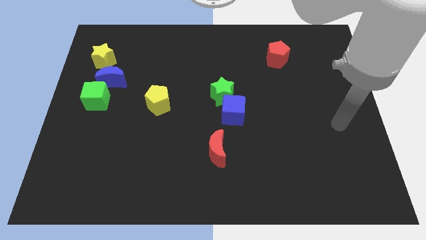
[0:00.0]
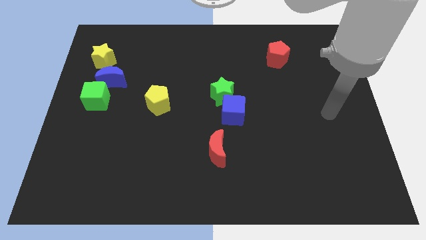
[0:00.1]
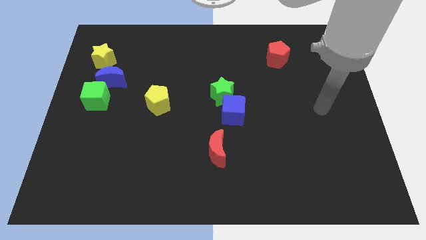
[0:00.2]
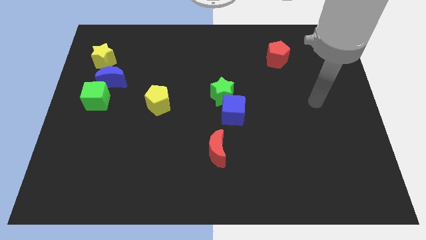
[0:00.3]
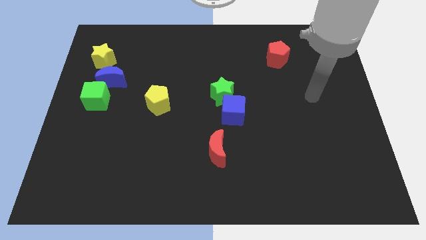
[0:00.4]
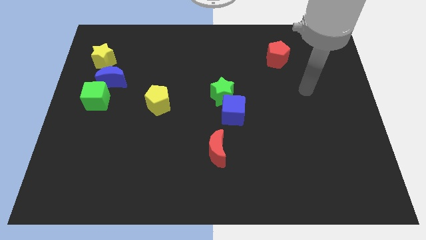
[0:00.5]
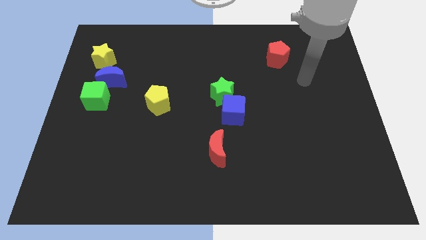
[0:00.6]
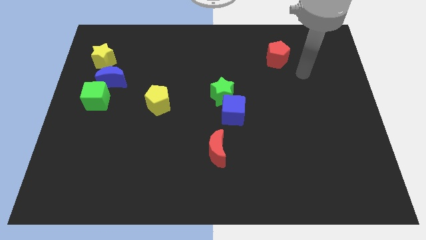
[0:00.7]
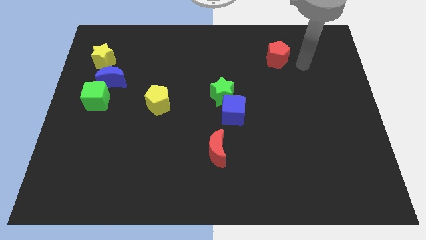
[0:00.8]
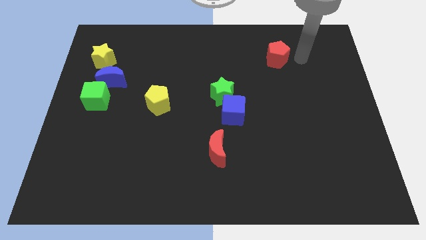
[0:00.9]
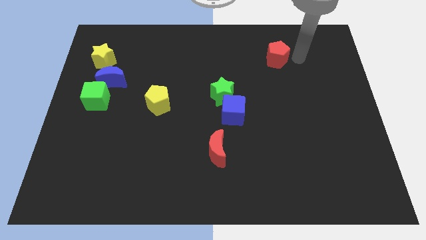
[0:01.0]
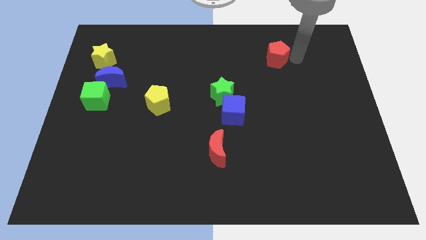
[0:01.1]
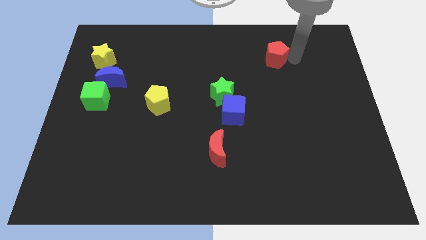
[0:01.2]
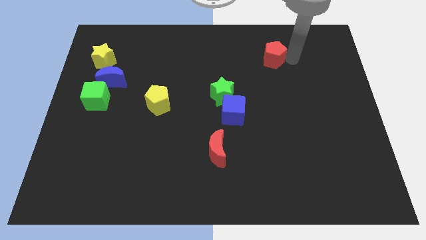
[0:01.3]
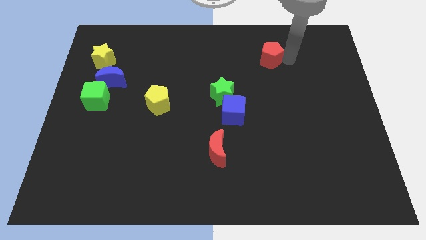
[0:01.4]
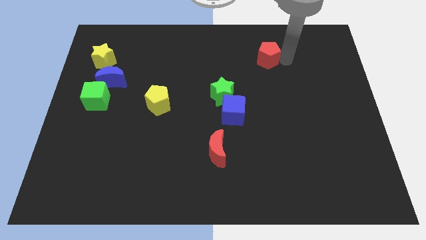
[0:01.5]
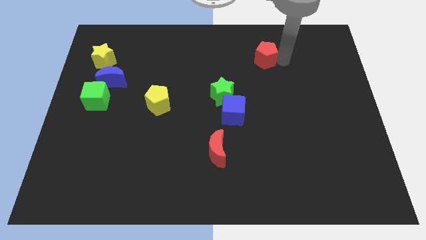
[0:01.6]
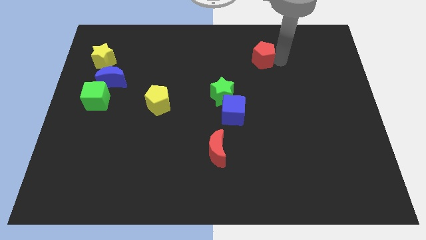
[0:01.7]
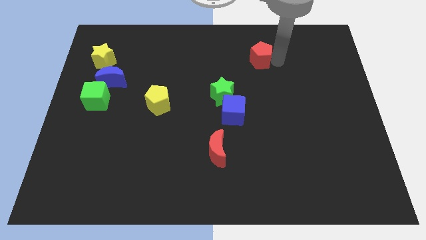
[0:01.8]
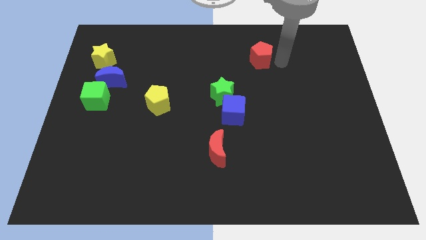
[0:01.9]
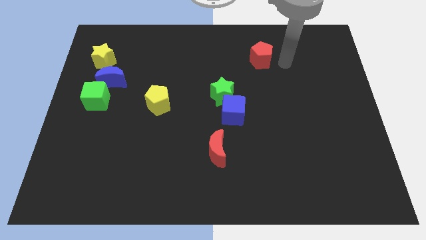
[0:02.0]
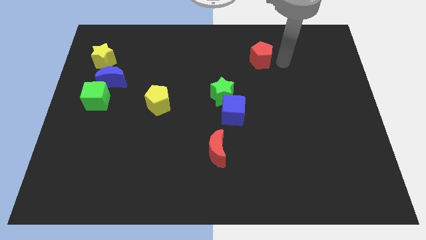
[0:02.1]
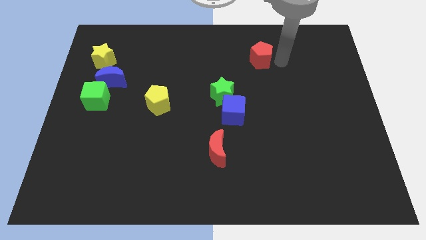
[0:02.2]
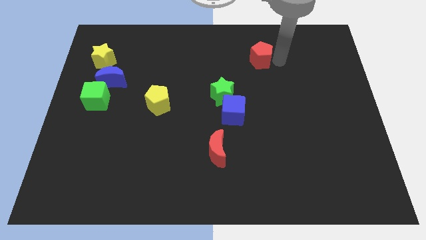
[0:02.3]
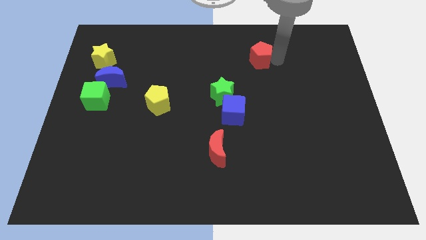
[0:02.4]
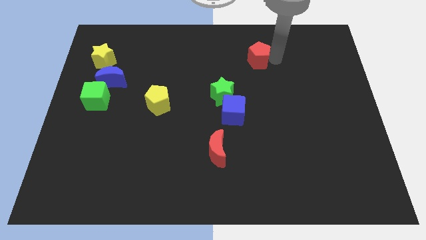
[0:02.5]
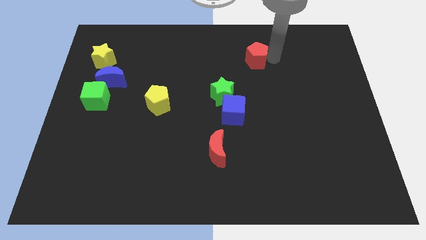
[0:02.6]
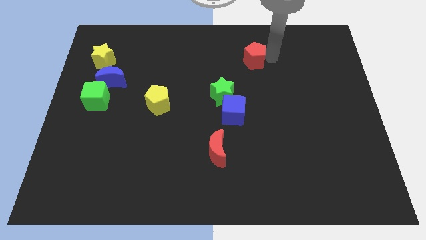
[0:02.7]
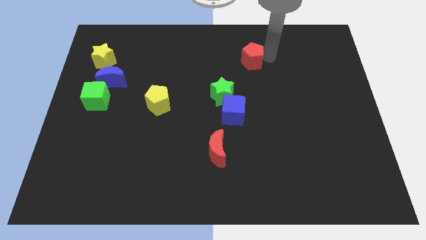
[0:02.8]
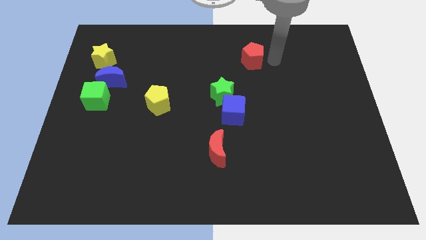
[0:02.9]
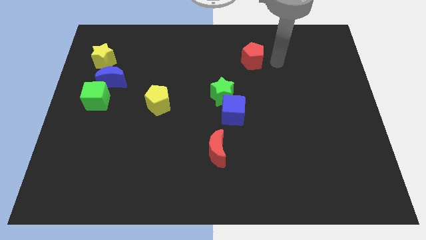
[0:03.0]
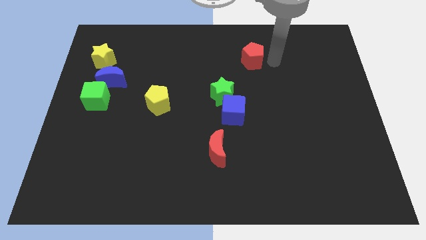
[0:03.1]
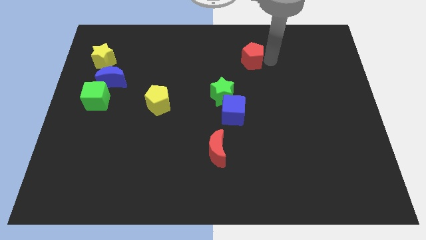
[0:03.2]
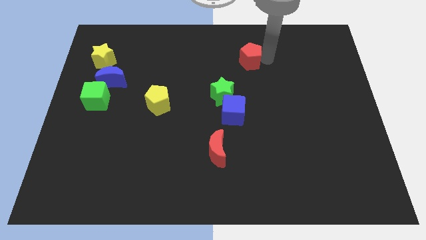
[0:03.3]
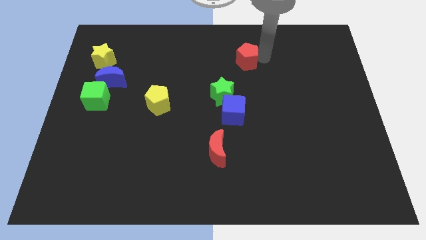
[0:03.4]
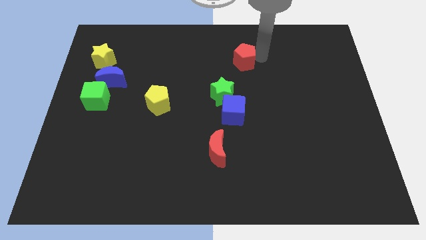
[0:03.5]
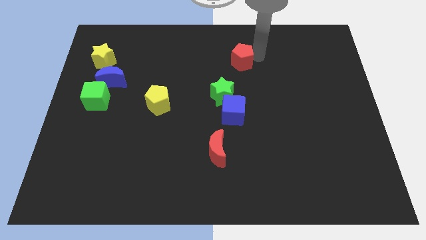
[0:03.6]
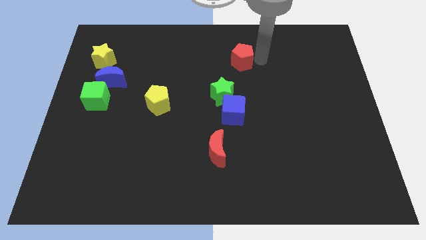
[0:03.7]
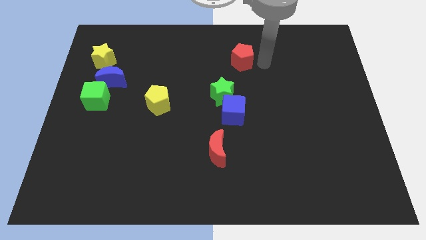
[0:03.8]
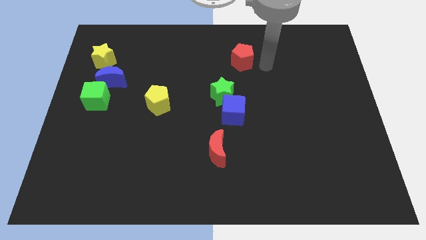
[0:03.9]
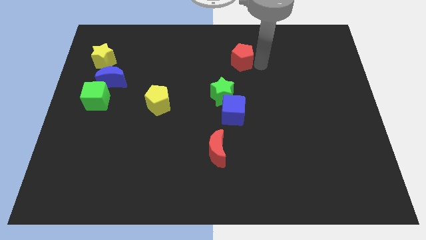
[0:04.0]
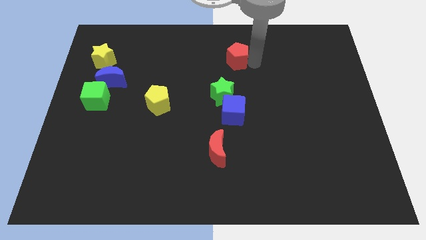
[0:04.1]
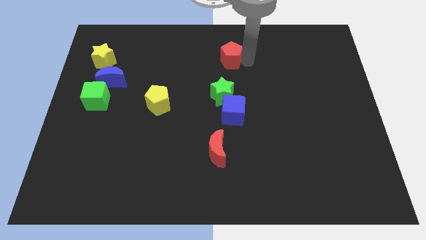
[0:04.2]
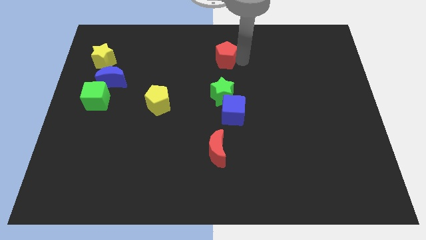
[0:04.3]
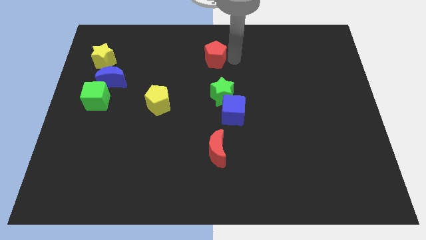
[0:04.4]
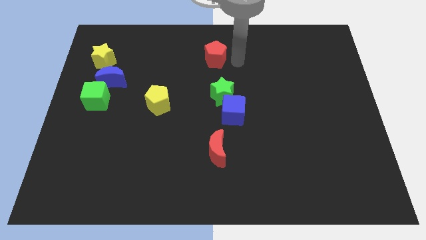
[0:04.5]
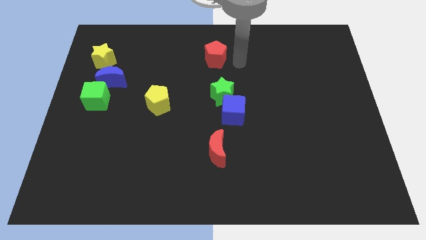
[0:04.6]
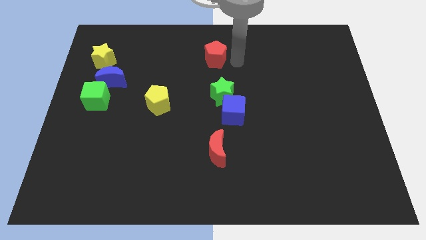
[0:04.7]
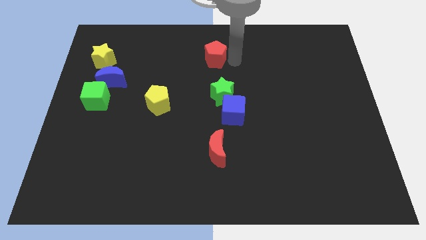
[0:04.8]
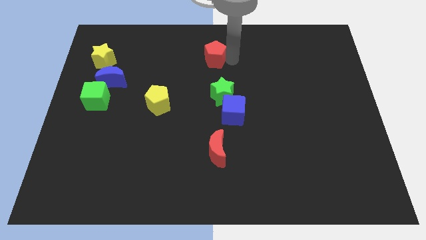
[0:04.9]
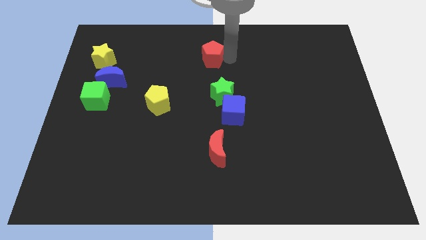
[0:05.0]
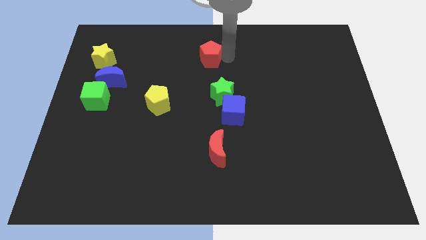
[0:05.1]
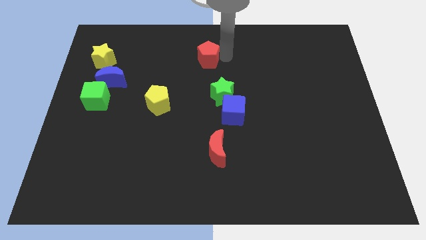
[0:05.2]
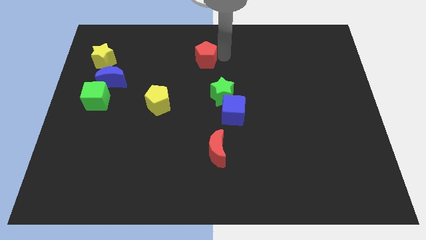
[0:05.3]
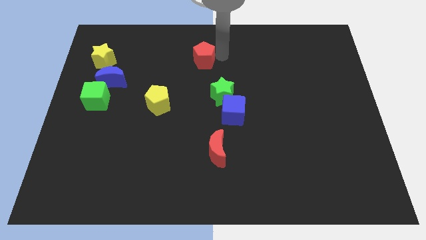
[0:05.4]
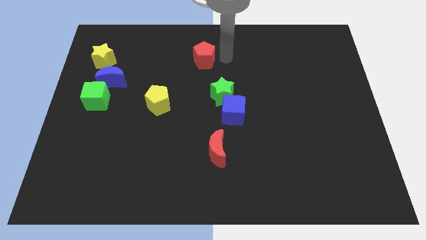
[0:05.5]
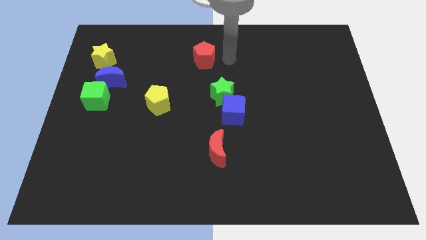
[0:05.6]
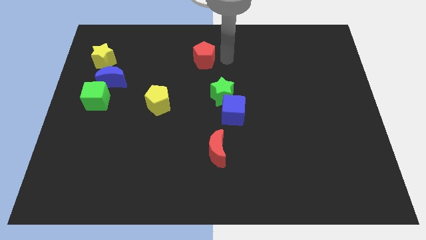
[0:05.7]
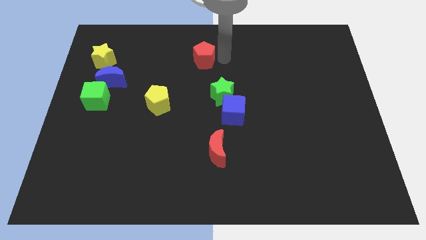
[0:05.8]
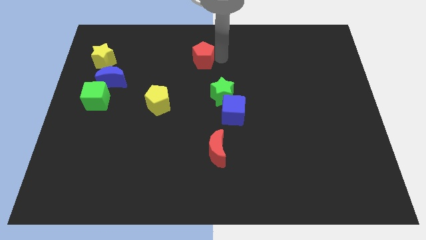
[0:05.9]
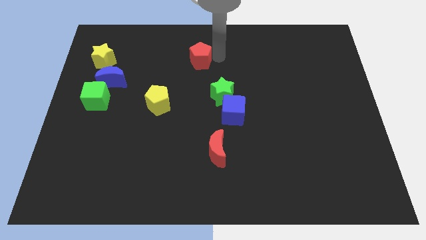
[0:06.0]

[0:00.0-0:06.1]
push the red pentagon left

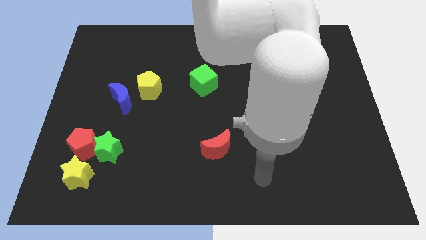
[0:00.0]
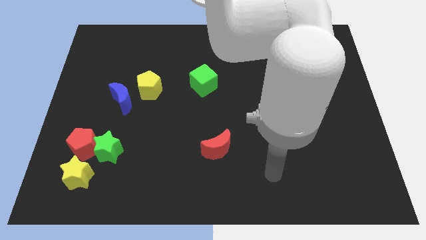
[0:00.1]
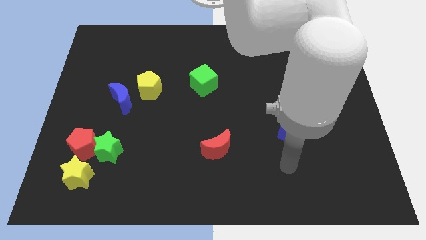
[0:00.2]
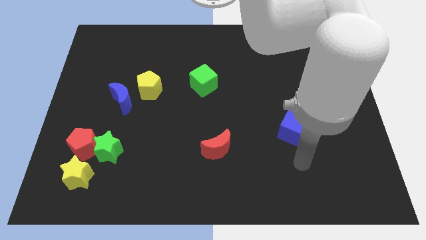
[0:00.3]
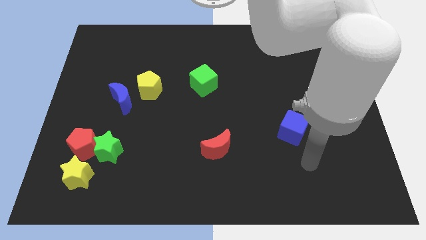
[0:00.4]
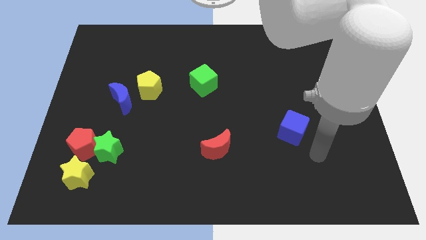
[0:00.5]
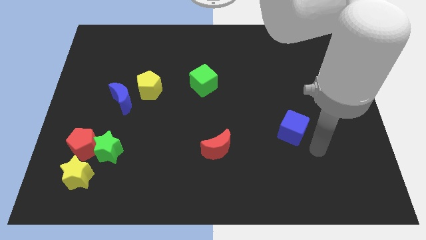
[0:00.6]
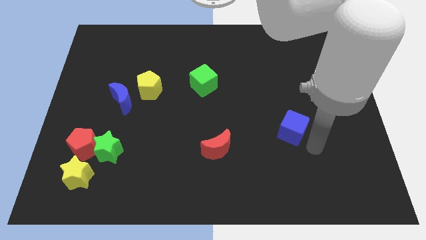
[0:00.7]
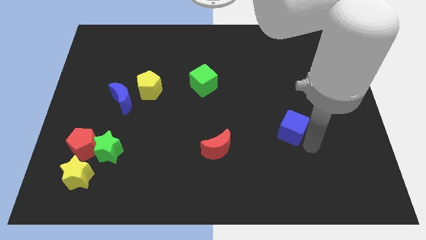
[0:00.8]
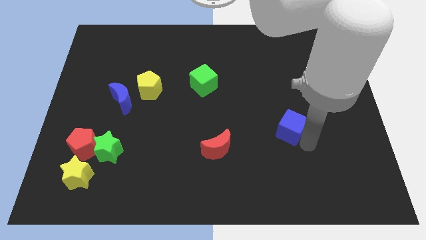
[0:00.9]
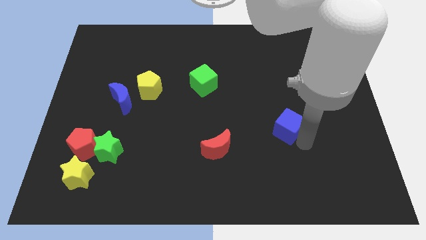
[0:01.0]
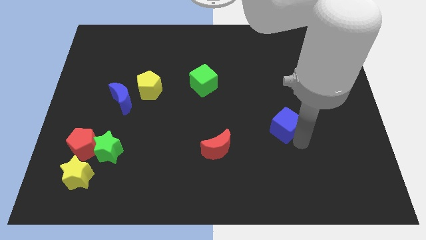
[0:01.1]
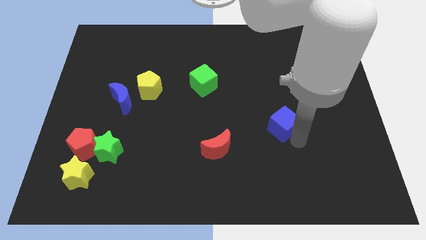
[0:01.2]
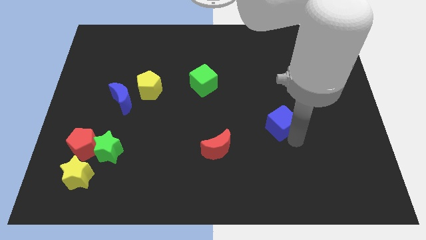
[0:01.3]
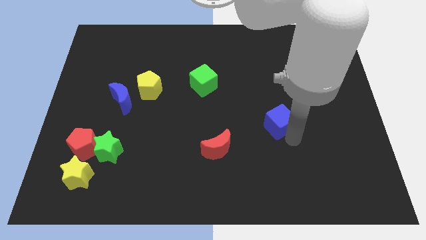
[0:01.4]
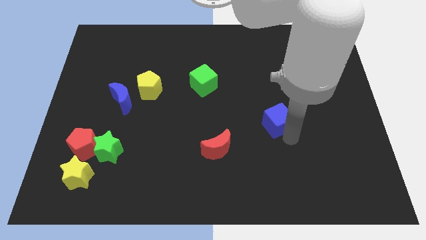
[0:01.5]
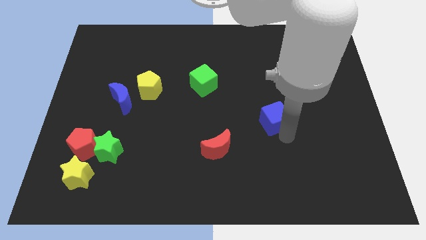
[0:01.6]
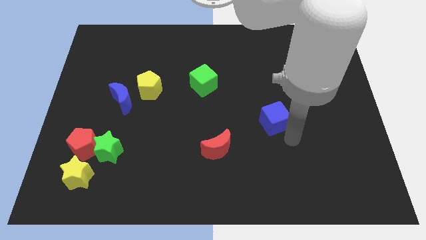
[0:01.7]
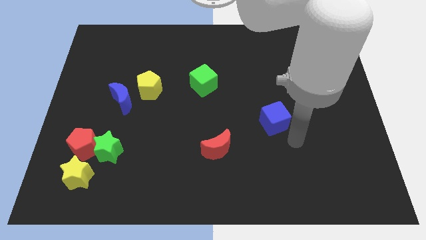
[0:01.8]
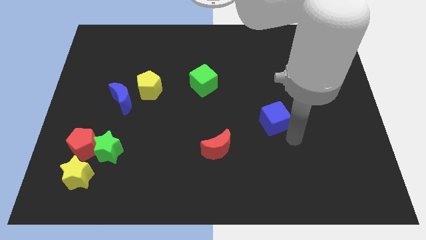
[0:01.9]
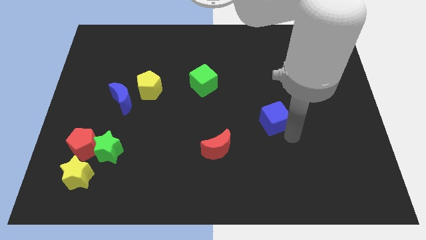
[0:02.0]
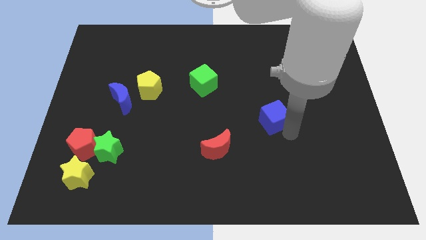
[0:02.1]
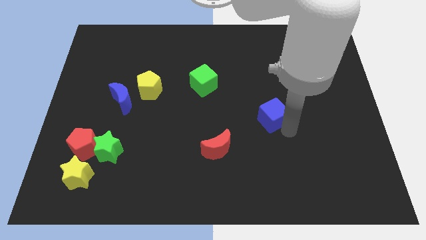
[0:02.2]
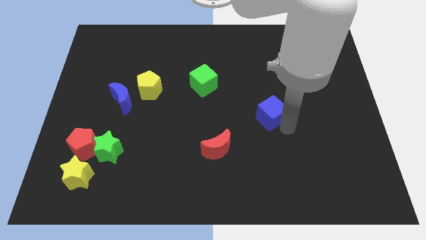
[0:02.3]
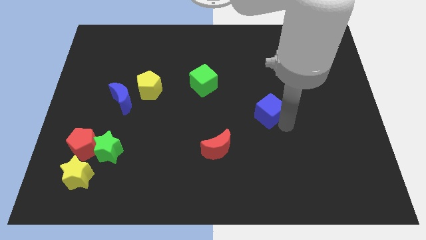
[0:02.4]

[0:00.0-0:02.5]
move the blue cube a bit upwards and then left
